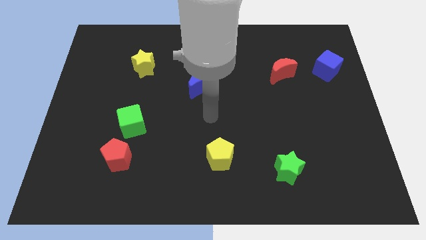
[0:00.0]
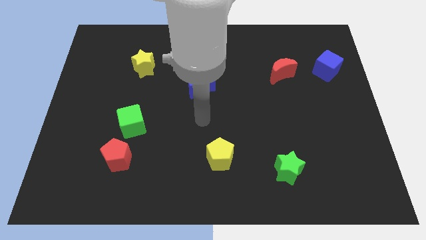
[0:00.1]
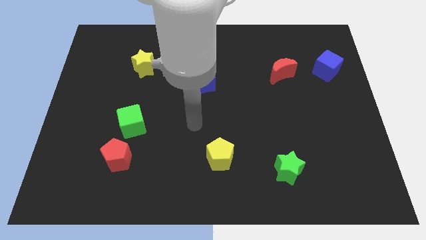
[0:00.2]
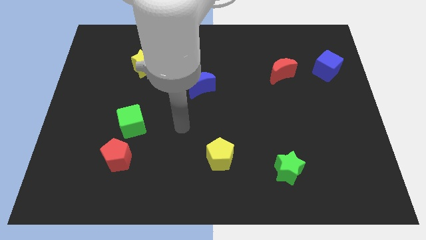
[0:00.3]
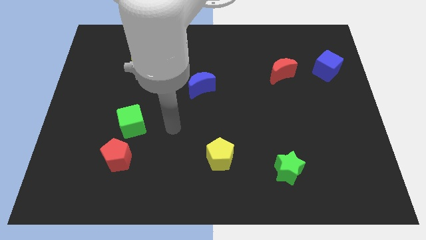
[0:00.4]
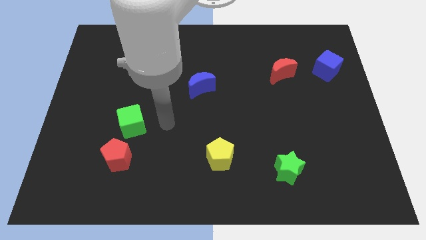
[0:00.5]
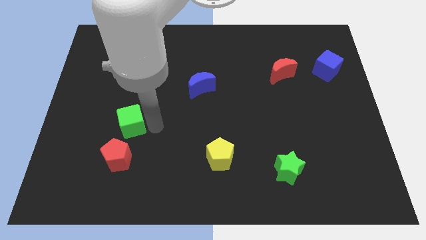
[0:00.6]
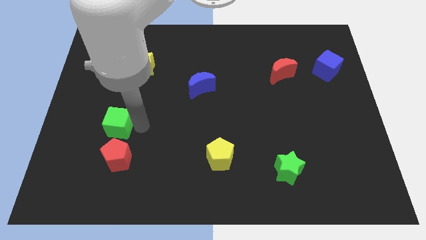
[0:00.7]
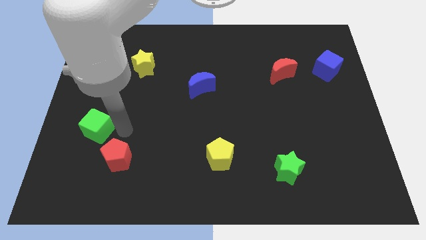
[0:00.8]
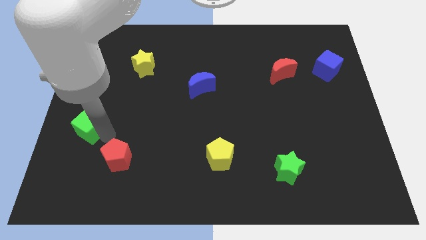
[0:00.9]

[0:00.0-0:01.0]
separate the red pentagon from the green cube

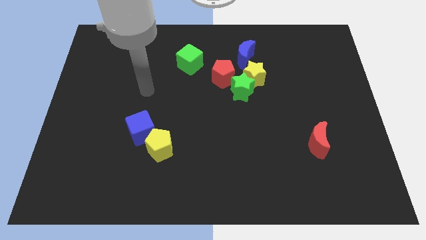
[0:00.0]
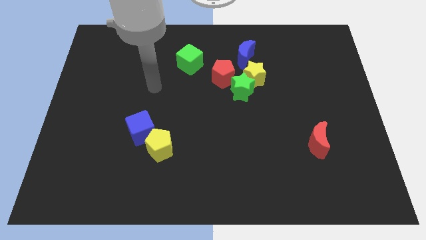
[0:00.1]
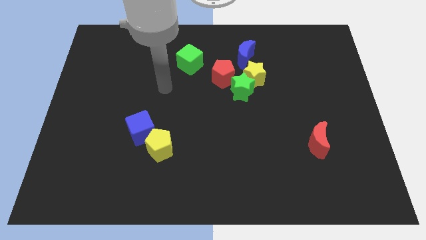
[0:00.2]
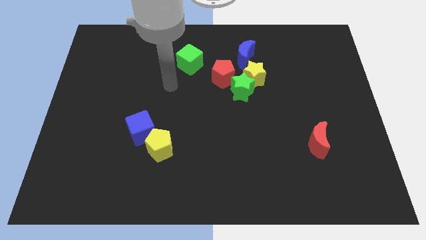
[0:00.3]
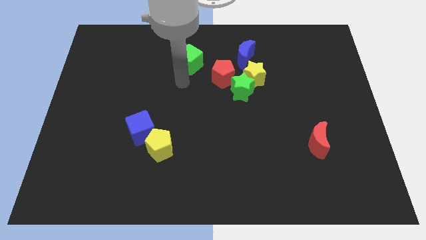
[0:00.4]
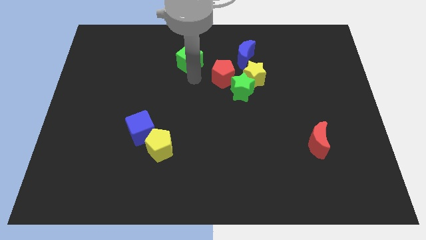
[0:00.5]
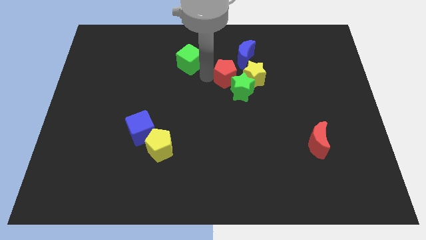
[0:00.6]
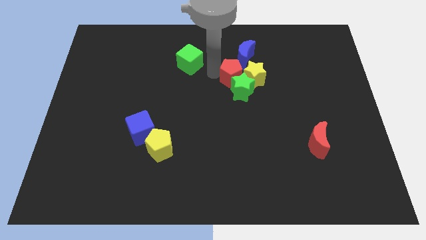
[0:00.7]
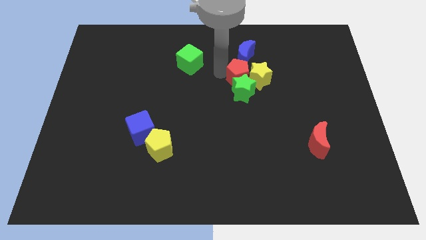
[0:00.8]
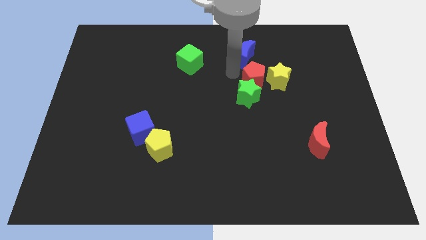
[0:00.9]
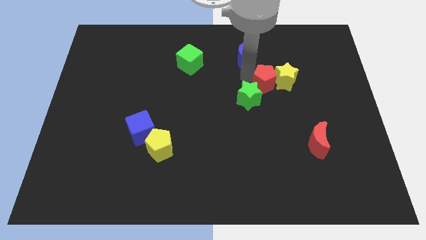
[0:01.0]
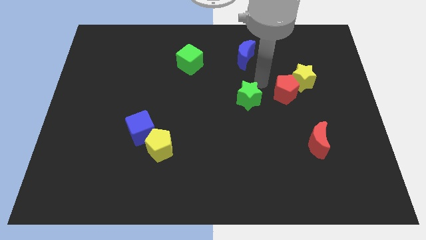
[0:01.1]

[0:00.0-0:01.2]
separate the green star from the yellow star and red pentagon

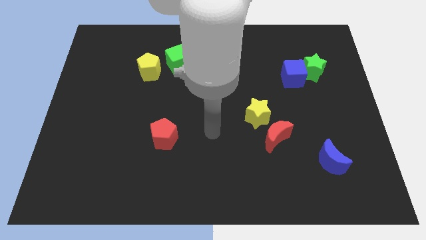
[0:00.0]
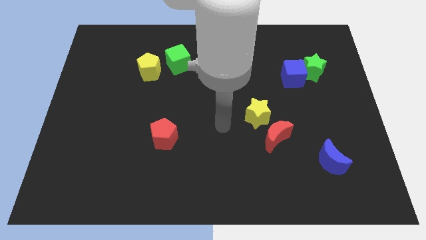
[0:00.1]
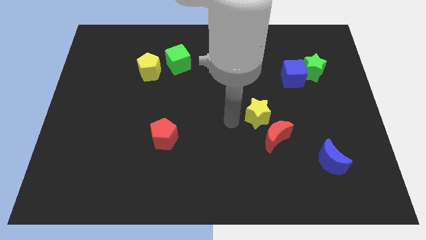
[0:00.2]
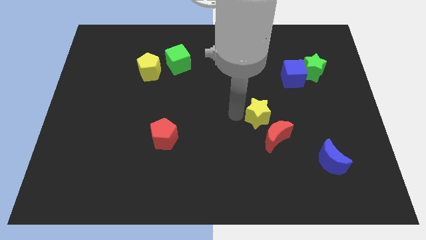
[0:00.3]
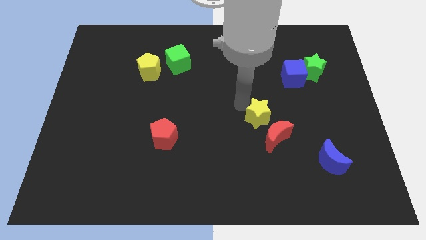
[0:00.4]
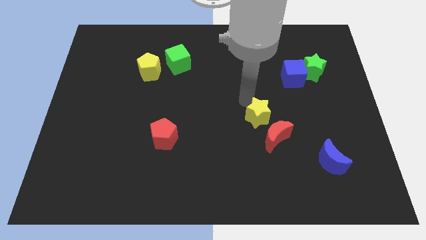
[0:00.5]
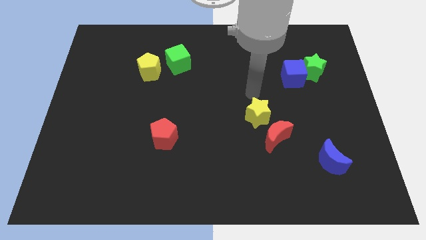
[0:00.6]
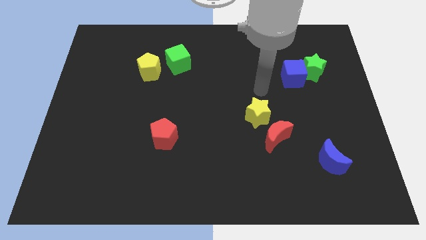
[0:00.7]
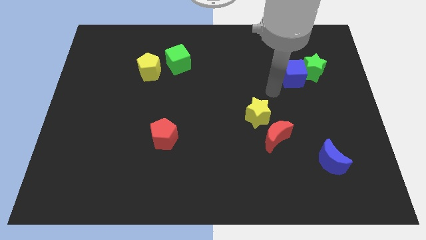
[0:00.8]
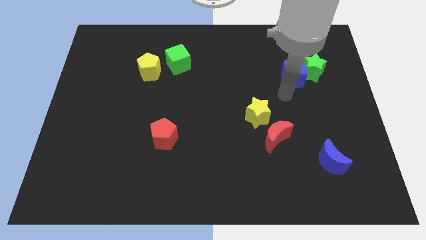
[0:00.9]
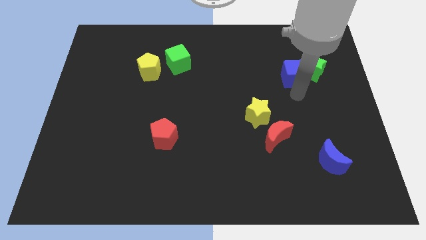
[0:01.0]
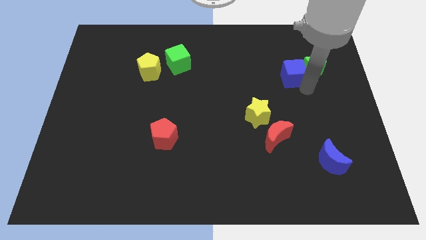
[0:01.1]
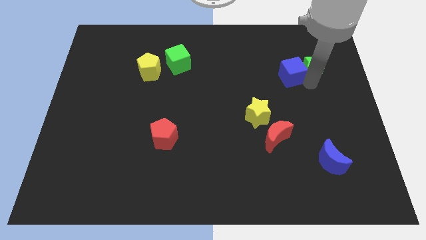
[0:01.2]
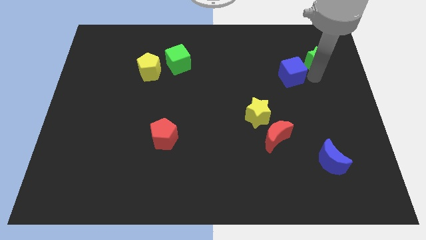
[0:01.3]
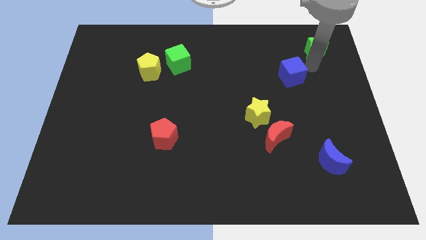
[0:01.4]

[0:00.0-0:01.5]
move the blue cube away from the green star

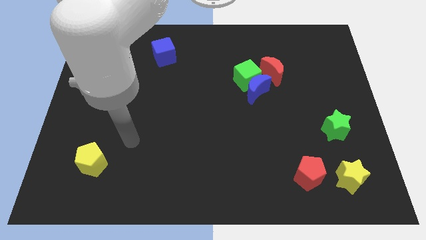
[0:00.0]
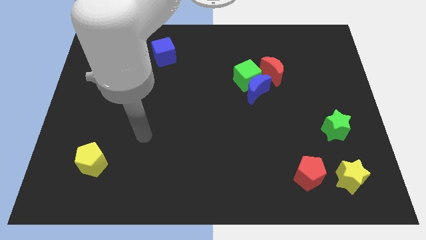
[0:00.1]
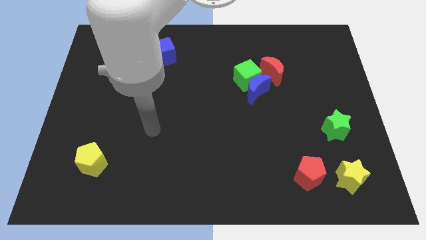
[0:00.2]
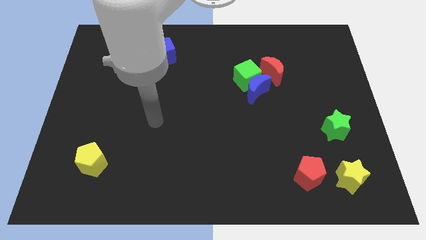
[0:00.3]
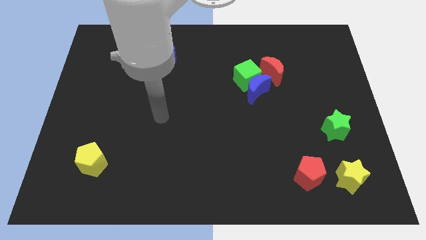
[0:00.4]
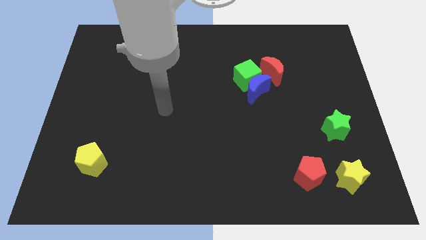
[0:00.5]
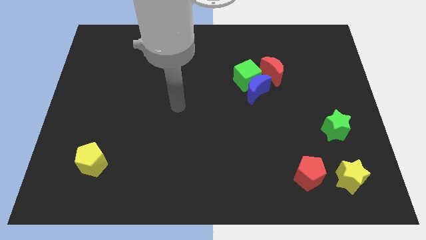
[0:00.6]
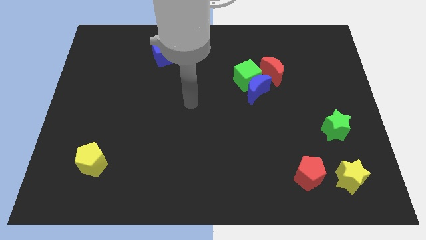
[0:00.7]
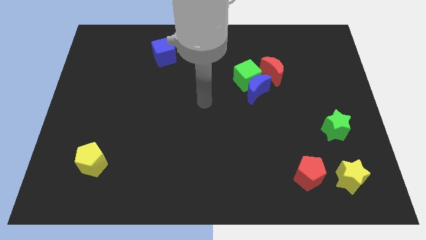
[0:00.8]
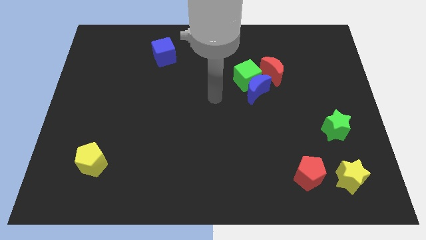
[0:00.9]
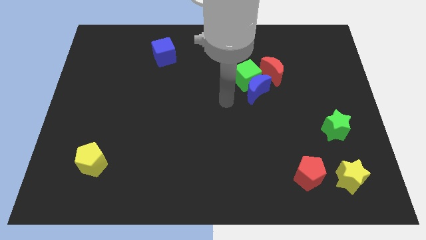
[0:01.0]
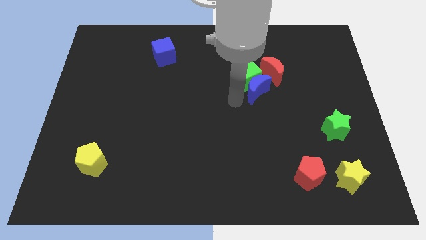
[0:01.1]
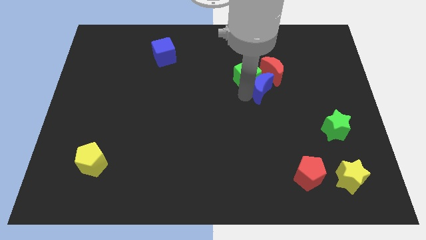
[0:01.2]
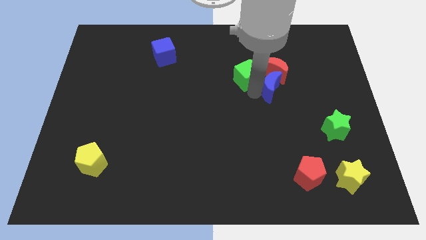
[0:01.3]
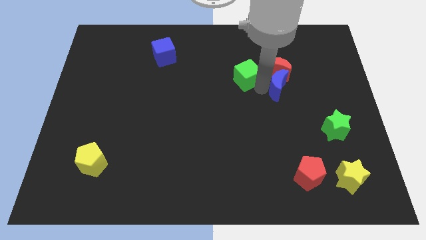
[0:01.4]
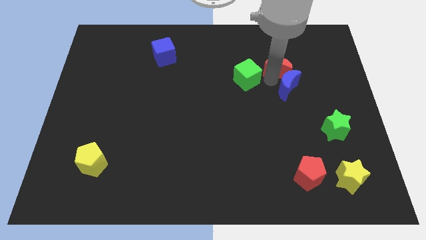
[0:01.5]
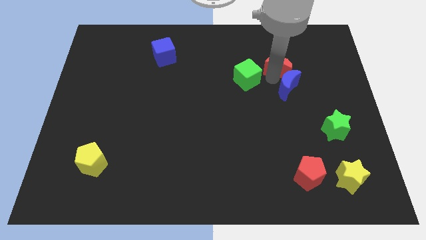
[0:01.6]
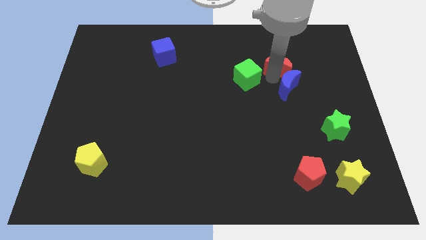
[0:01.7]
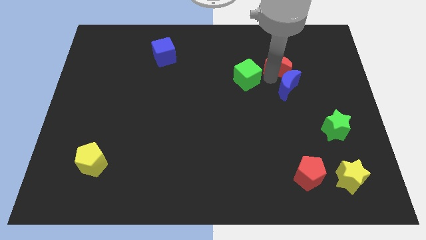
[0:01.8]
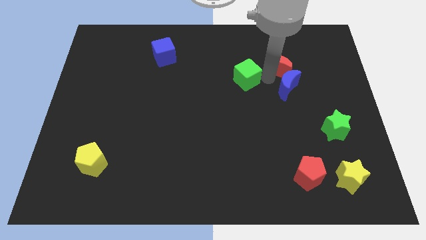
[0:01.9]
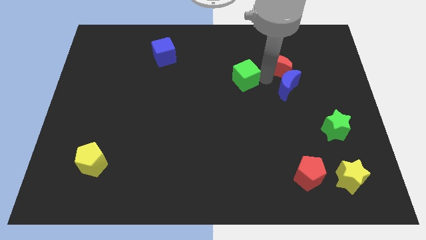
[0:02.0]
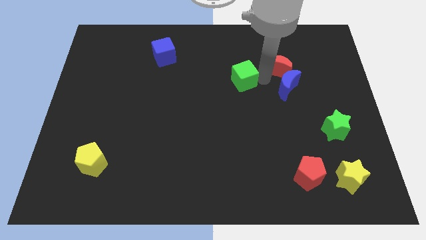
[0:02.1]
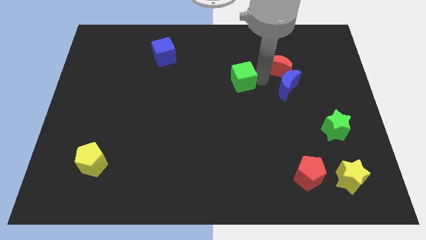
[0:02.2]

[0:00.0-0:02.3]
separate the green cube from the blue moon and red moon

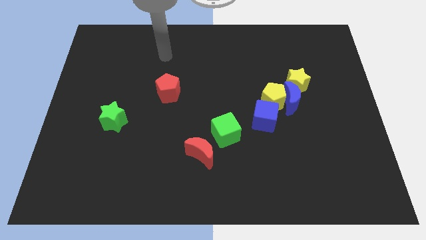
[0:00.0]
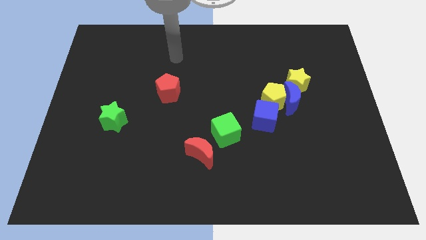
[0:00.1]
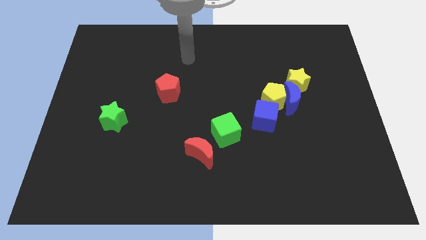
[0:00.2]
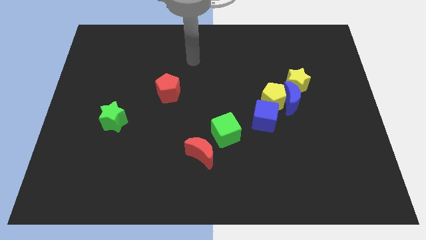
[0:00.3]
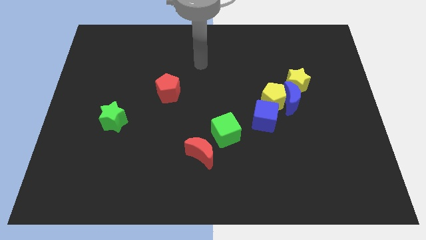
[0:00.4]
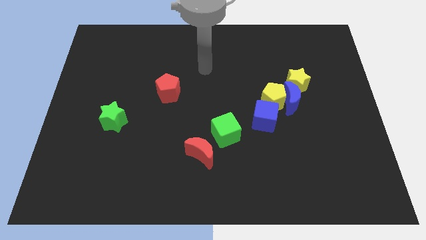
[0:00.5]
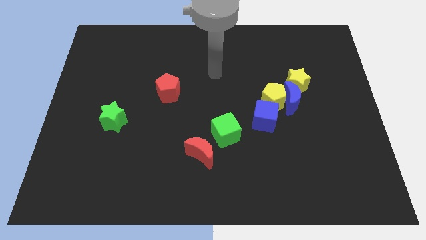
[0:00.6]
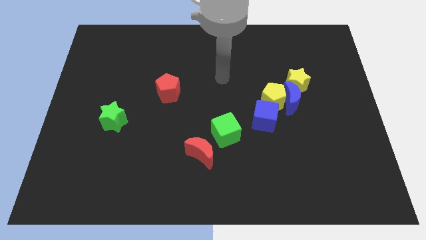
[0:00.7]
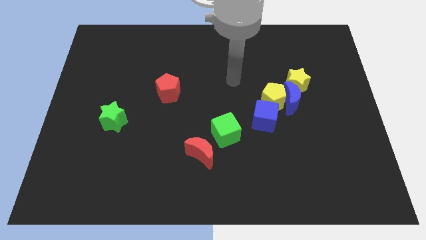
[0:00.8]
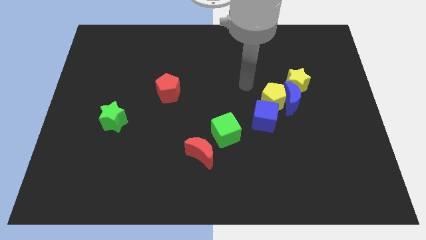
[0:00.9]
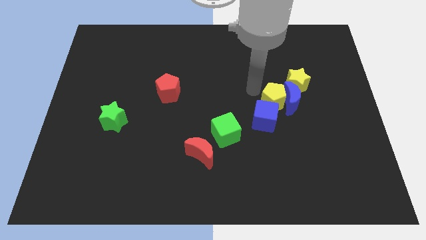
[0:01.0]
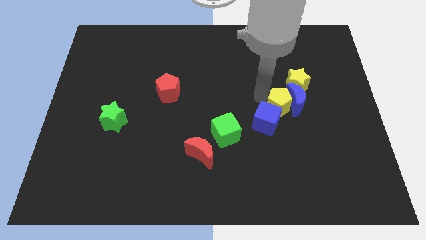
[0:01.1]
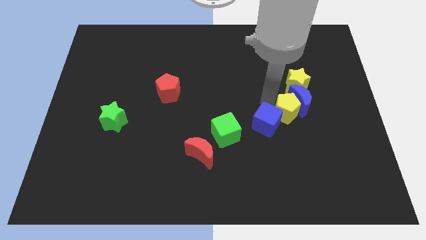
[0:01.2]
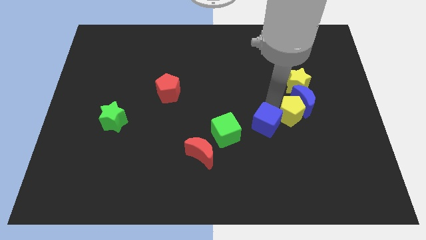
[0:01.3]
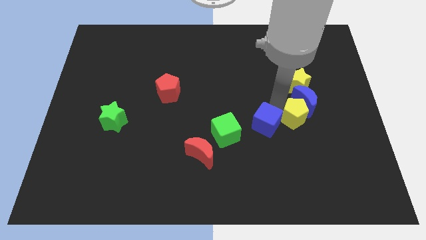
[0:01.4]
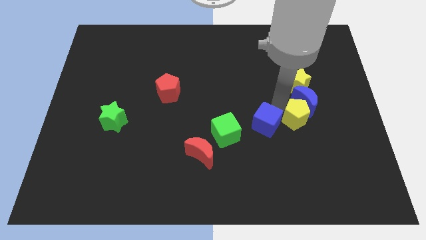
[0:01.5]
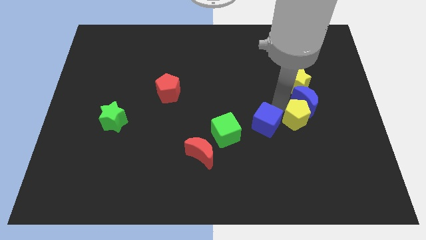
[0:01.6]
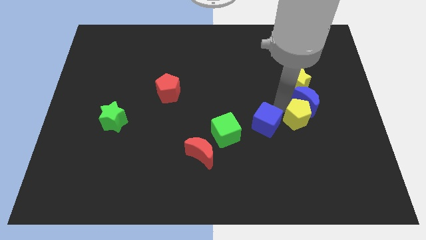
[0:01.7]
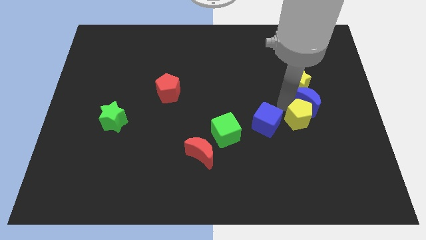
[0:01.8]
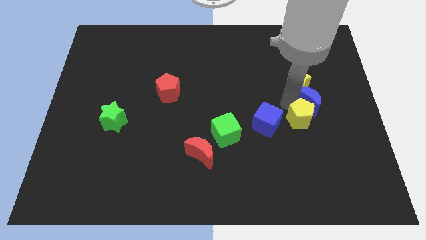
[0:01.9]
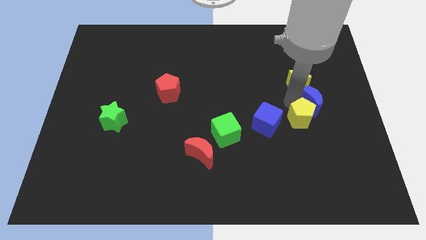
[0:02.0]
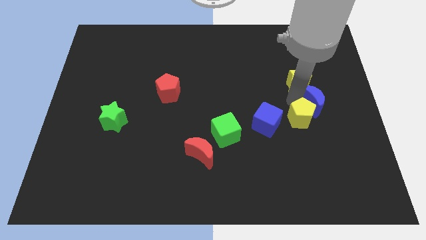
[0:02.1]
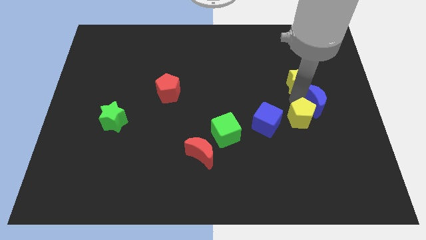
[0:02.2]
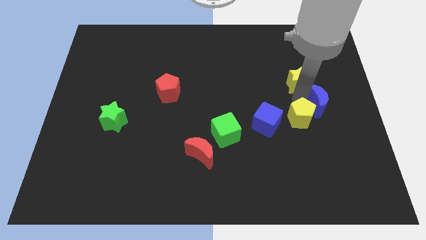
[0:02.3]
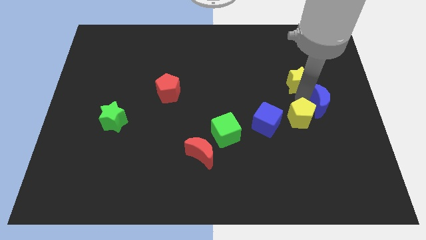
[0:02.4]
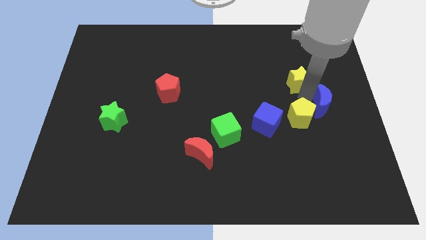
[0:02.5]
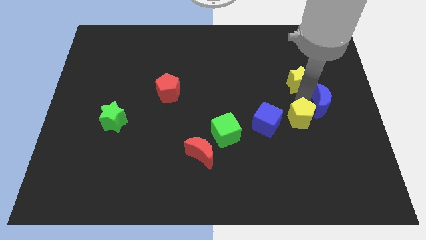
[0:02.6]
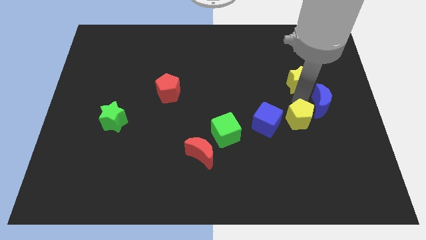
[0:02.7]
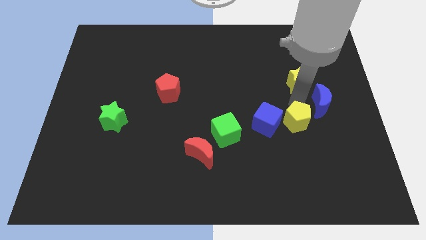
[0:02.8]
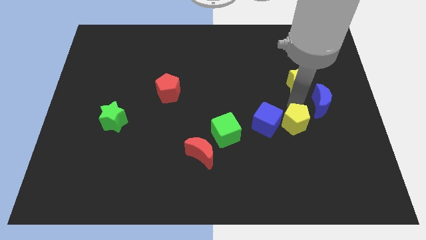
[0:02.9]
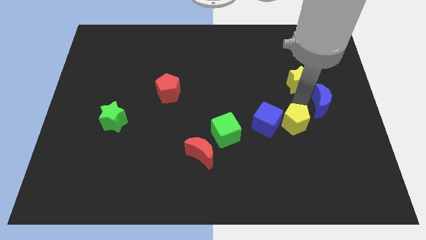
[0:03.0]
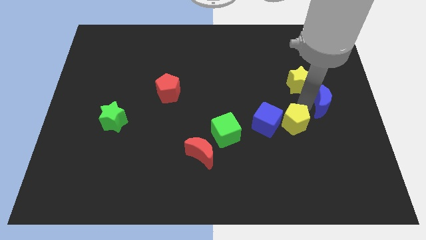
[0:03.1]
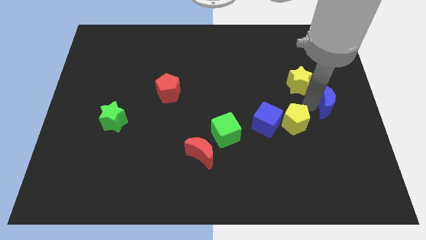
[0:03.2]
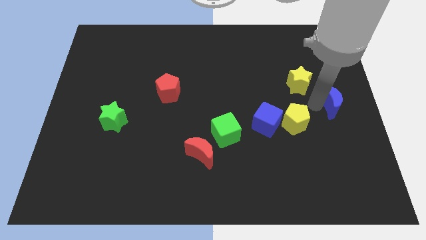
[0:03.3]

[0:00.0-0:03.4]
separate the blue moon from the yellow pentagon, yellow star, and blue cube
